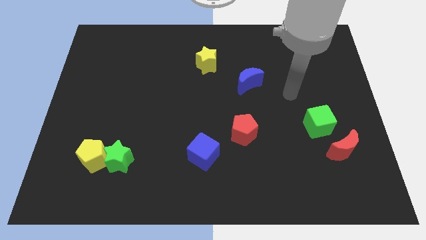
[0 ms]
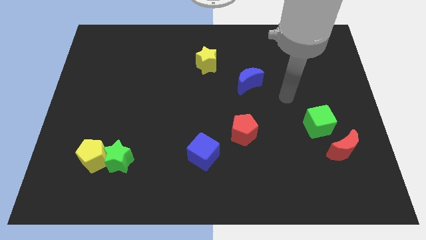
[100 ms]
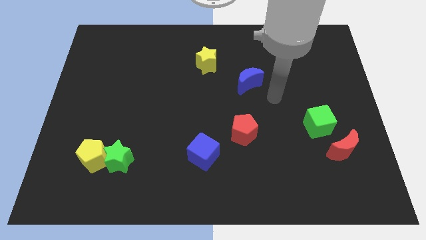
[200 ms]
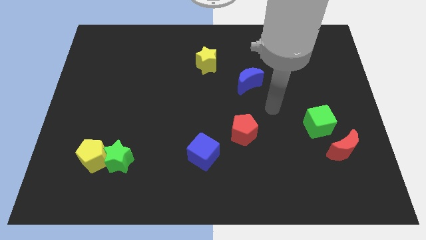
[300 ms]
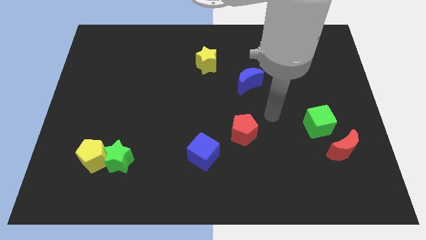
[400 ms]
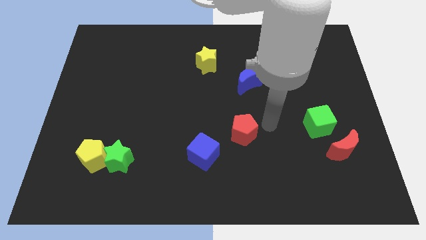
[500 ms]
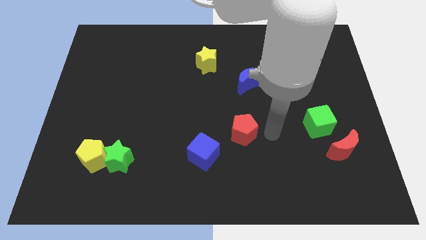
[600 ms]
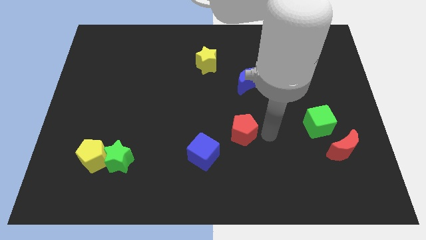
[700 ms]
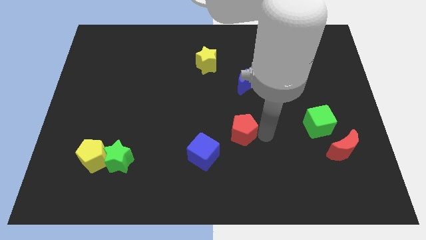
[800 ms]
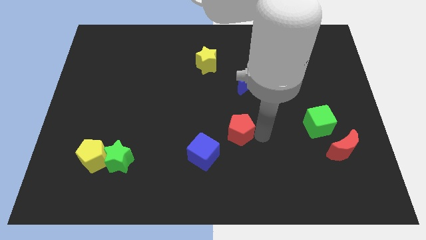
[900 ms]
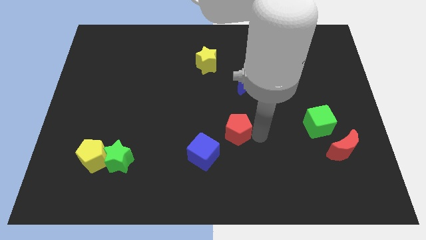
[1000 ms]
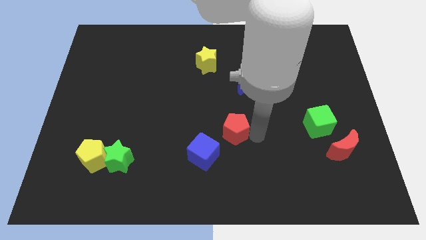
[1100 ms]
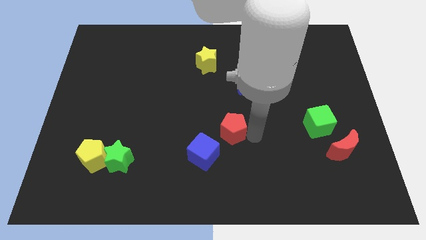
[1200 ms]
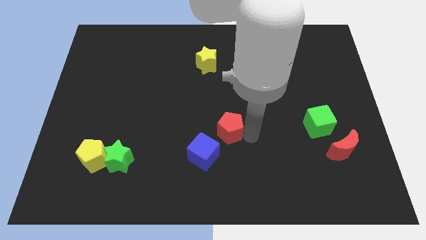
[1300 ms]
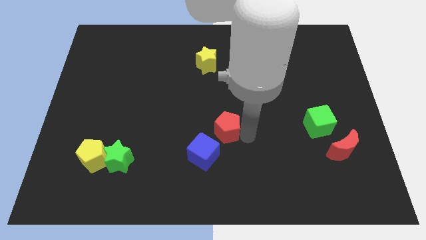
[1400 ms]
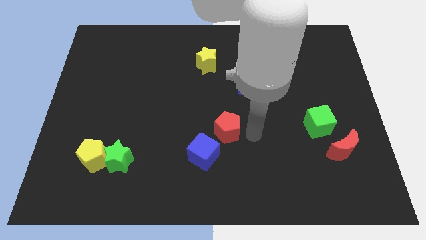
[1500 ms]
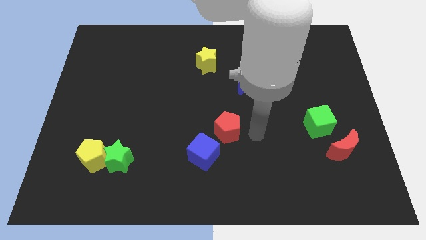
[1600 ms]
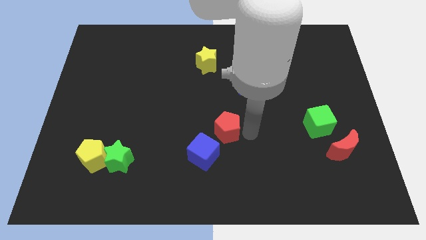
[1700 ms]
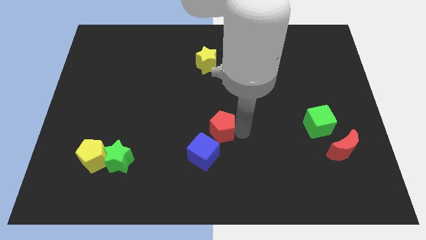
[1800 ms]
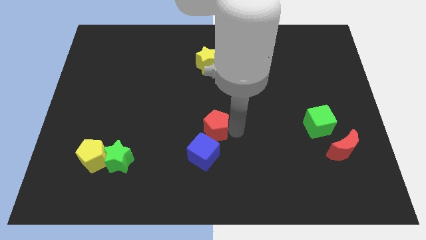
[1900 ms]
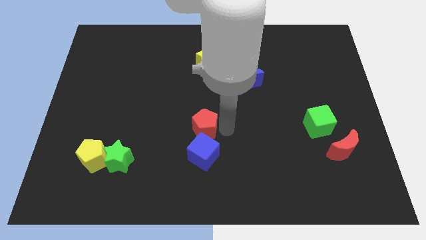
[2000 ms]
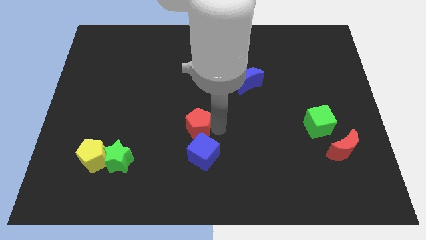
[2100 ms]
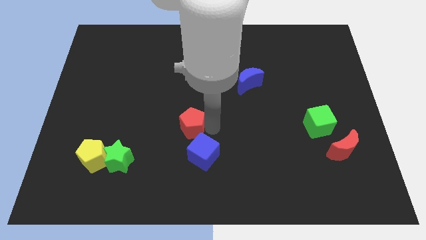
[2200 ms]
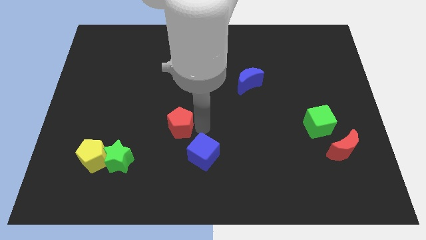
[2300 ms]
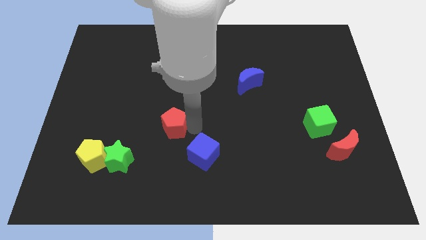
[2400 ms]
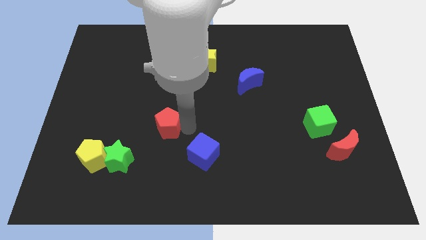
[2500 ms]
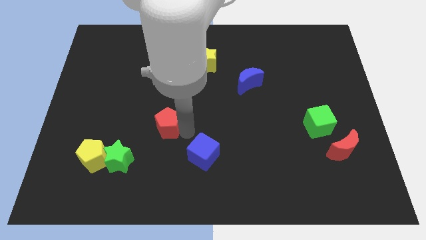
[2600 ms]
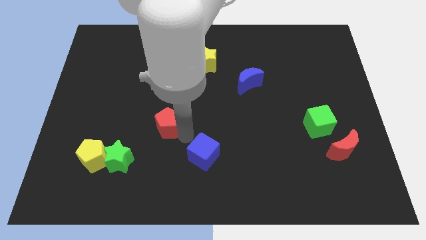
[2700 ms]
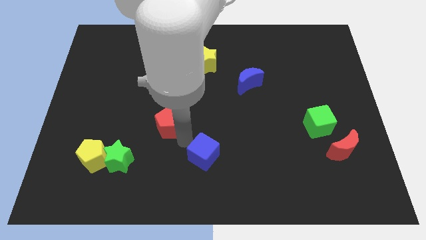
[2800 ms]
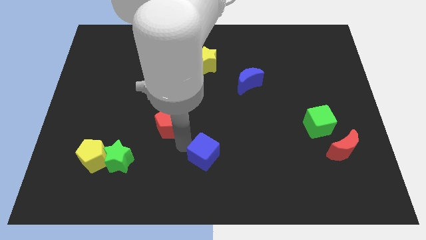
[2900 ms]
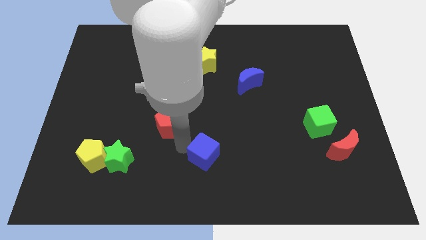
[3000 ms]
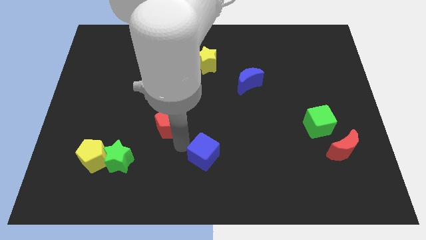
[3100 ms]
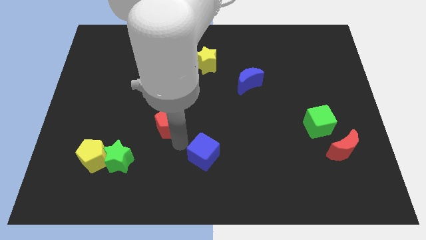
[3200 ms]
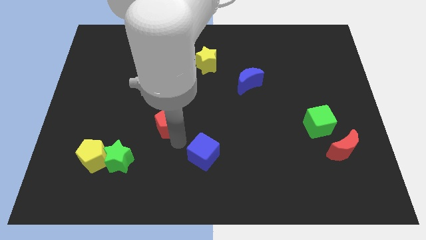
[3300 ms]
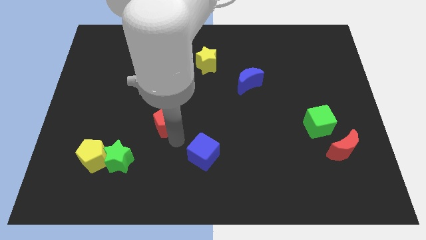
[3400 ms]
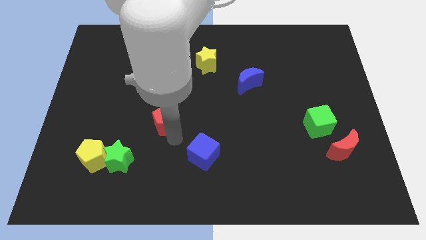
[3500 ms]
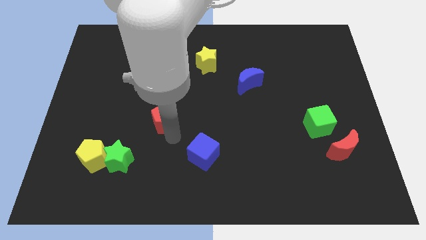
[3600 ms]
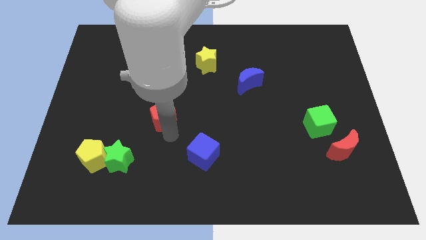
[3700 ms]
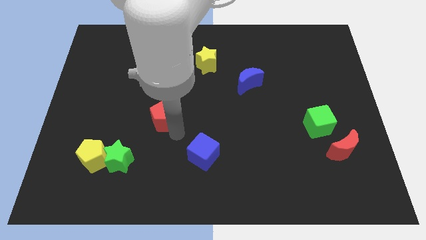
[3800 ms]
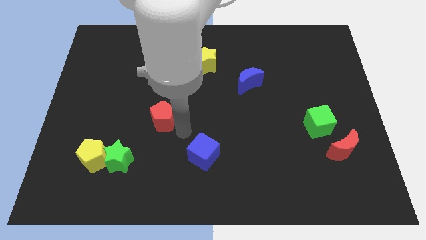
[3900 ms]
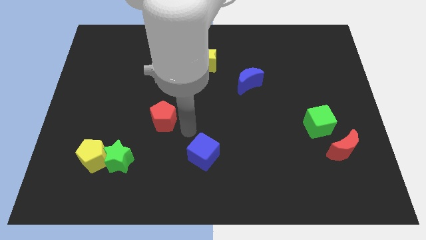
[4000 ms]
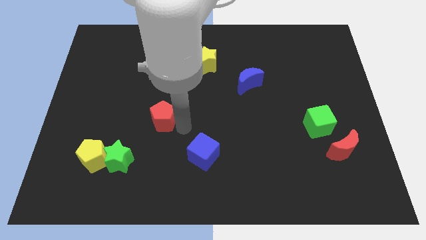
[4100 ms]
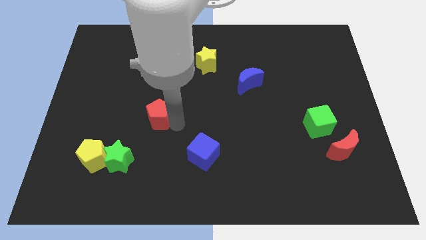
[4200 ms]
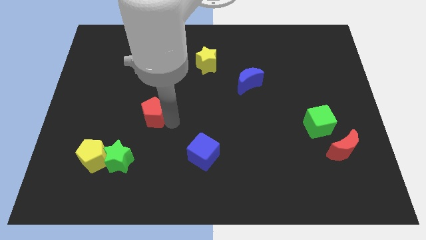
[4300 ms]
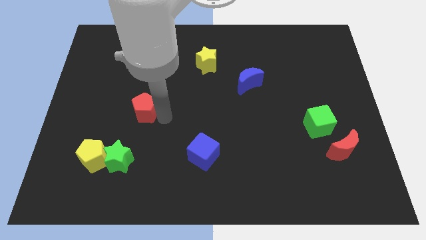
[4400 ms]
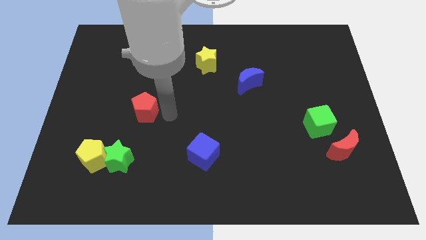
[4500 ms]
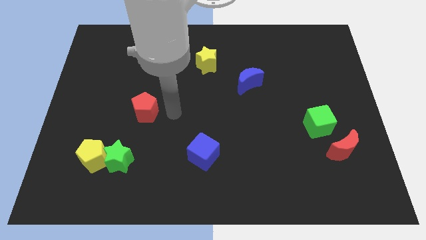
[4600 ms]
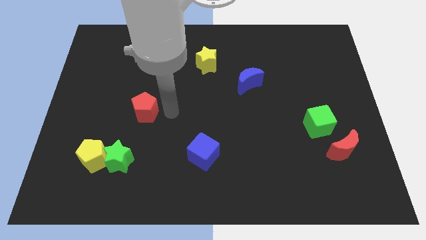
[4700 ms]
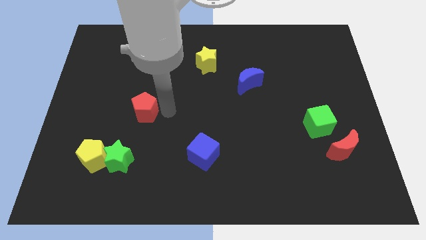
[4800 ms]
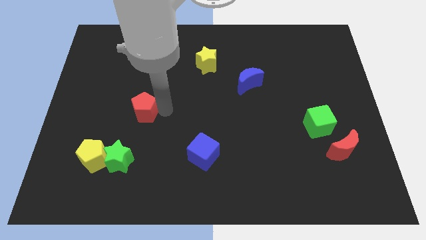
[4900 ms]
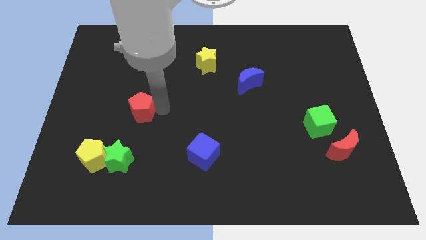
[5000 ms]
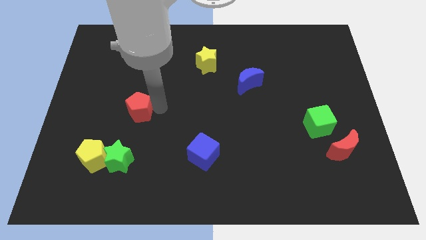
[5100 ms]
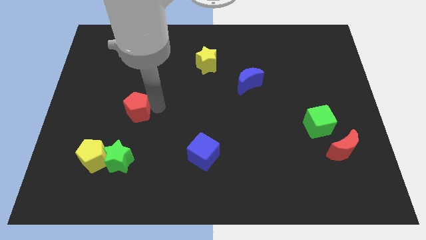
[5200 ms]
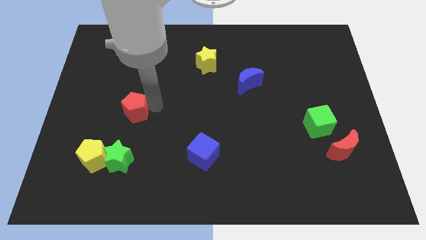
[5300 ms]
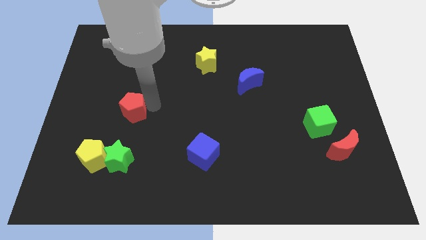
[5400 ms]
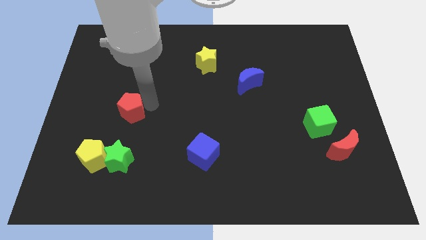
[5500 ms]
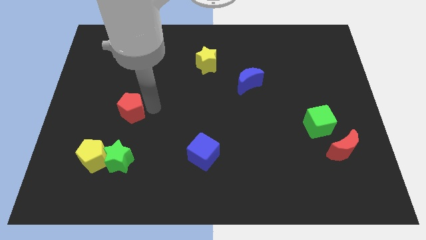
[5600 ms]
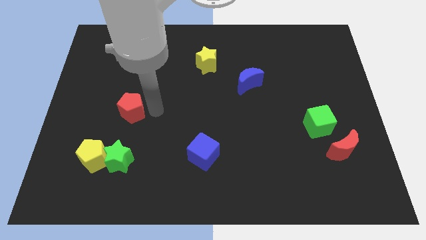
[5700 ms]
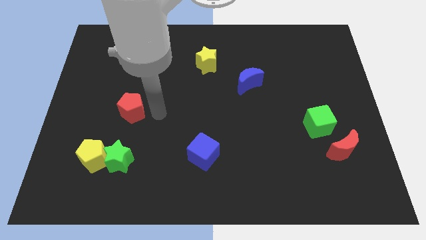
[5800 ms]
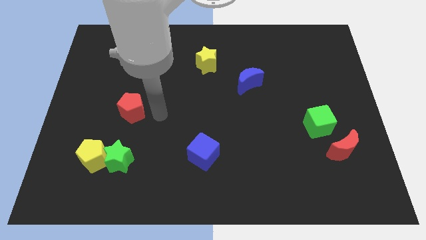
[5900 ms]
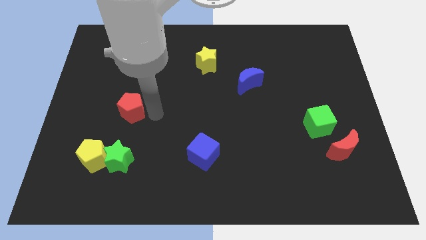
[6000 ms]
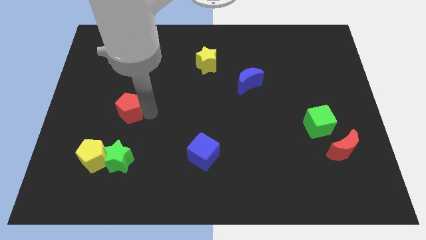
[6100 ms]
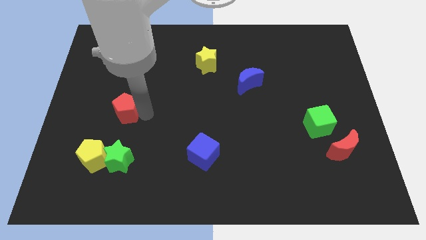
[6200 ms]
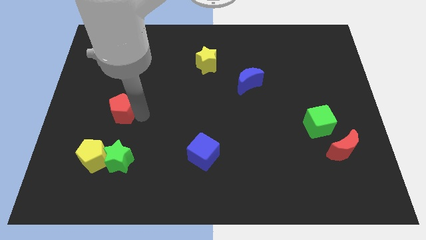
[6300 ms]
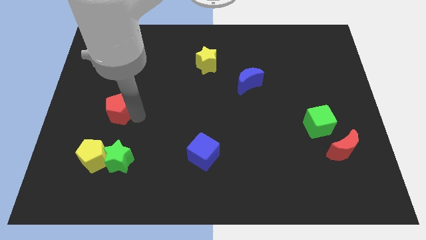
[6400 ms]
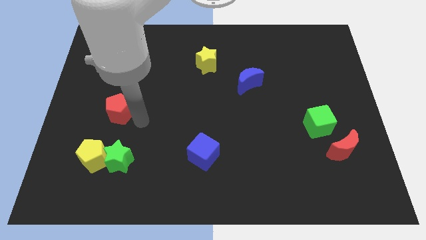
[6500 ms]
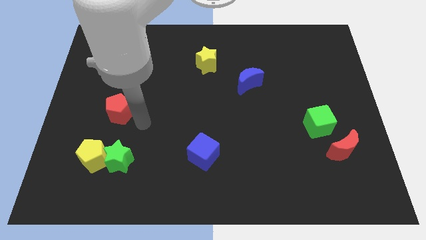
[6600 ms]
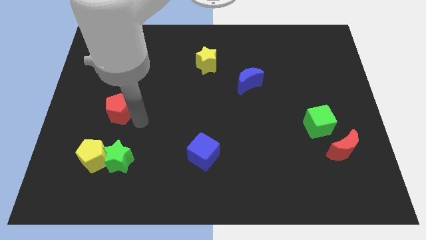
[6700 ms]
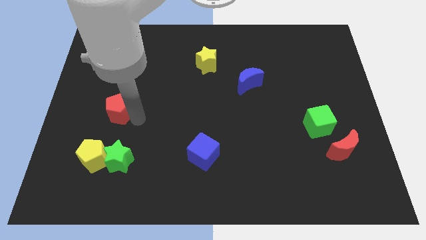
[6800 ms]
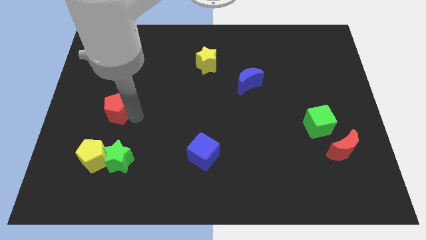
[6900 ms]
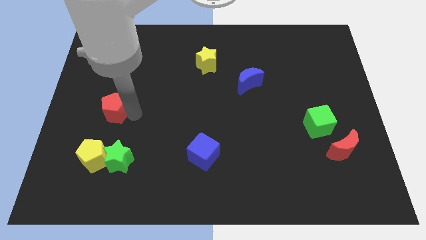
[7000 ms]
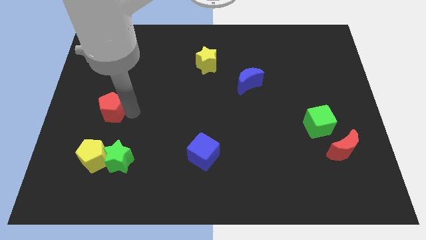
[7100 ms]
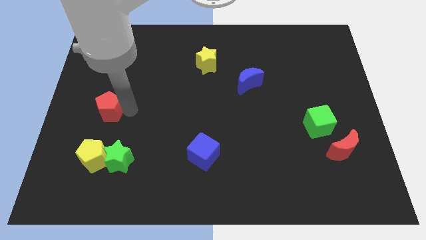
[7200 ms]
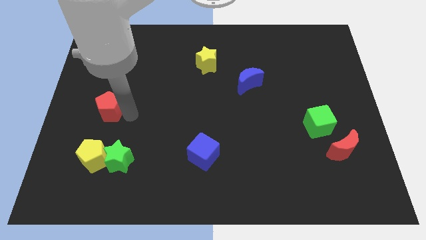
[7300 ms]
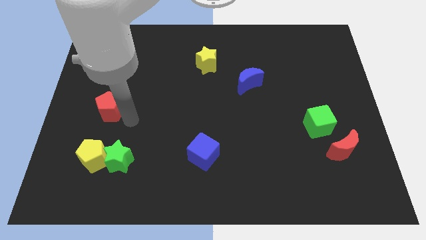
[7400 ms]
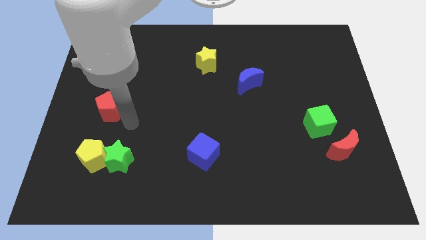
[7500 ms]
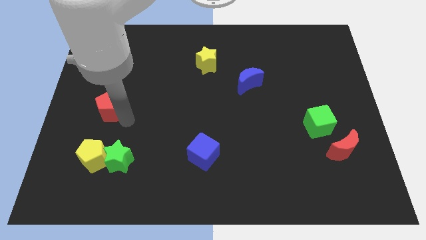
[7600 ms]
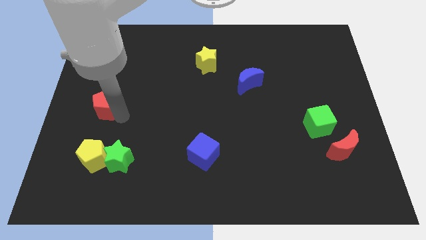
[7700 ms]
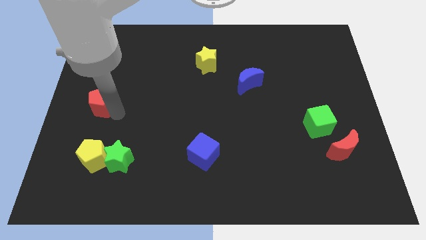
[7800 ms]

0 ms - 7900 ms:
push the red pentagon to the center left

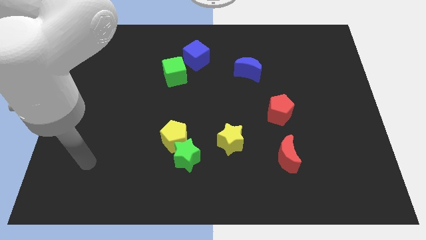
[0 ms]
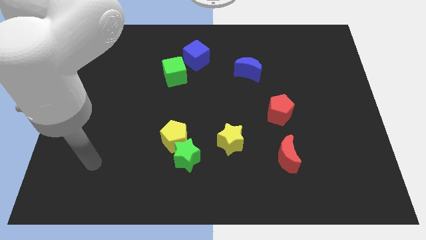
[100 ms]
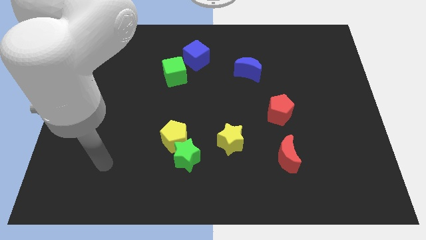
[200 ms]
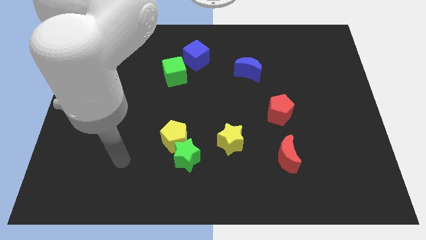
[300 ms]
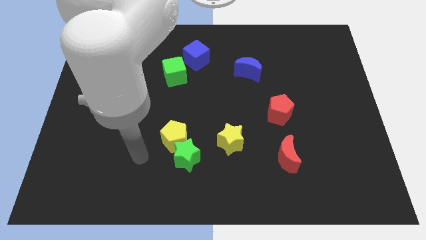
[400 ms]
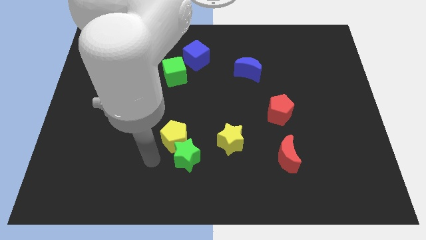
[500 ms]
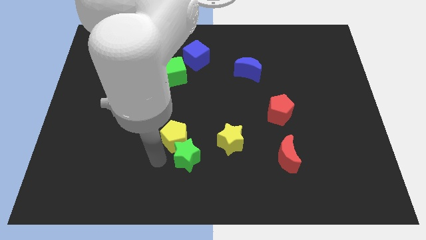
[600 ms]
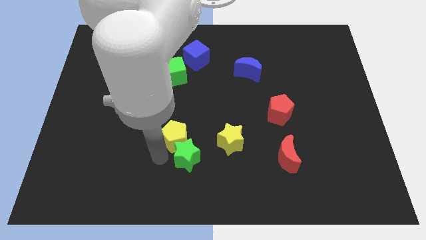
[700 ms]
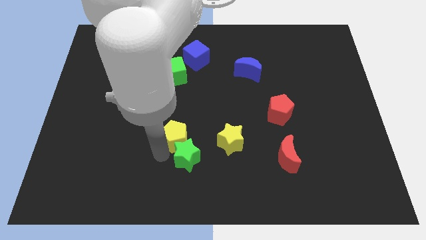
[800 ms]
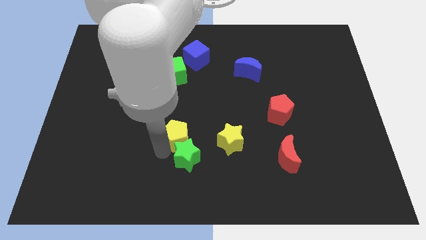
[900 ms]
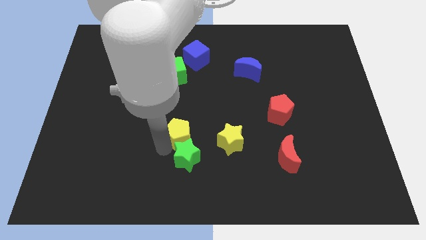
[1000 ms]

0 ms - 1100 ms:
slide the yellow pentagon to the center of the board
